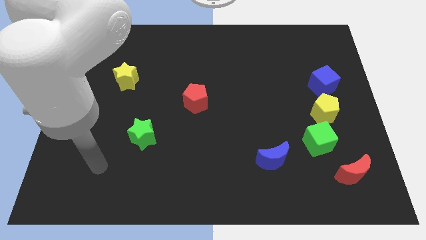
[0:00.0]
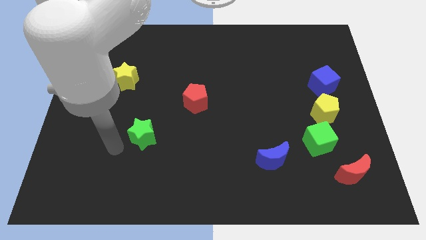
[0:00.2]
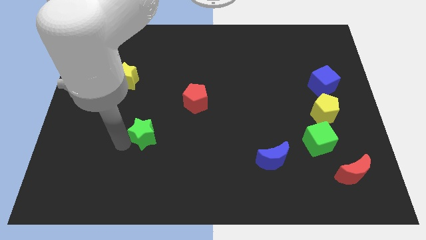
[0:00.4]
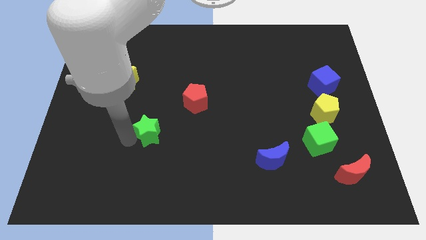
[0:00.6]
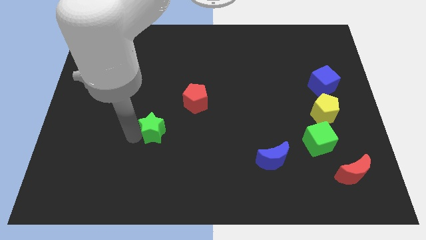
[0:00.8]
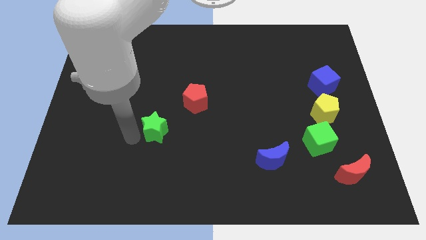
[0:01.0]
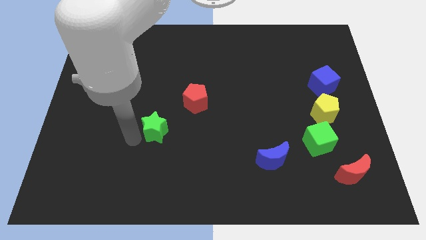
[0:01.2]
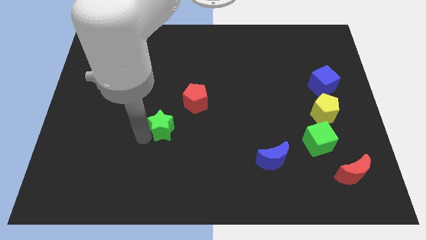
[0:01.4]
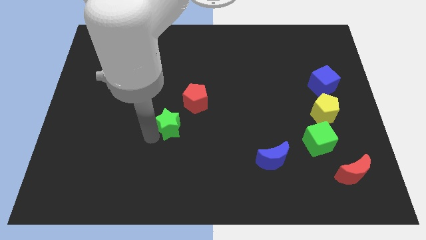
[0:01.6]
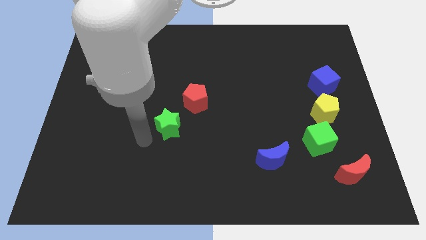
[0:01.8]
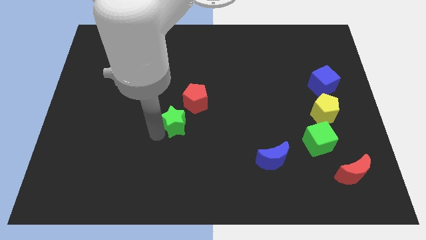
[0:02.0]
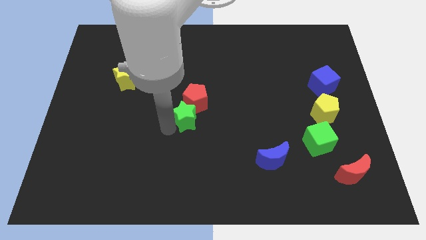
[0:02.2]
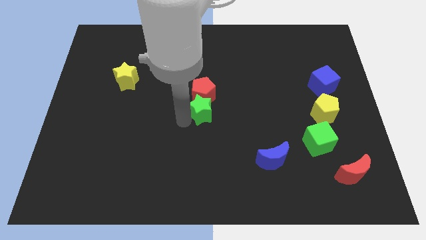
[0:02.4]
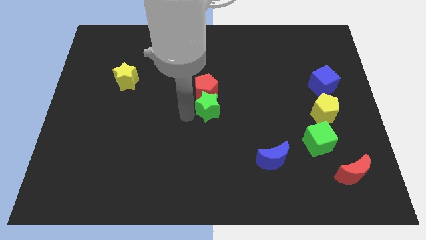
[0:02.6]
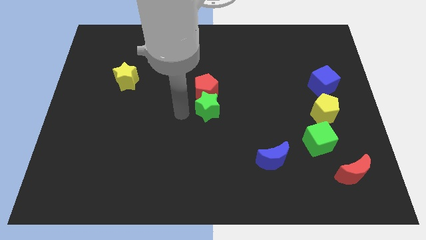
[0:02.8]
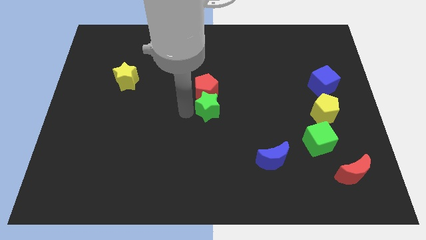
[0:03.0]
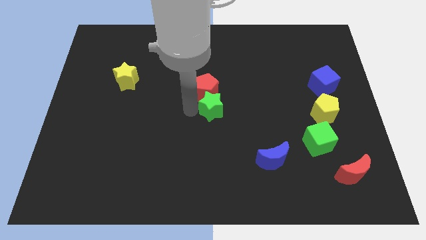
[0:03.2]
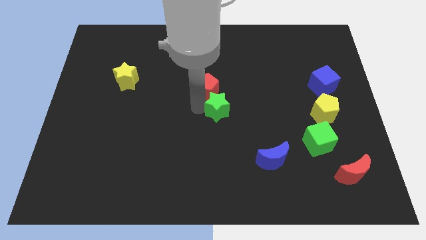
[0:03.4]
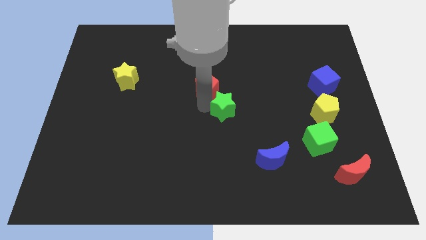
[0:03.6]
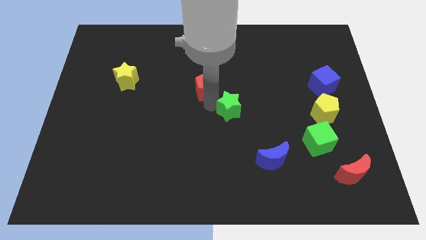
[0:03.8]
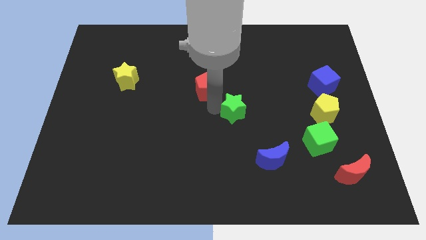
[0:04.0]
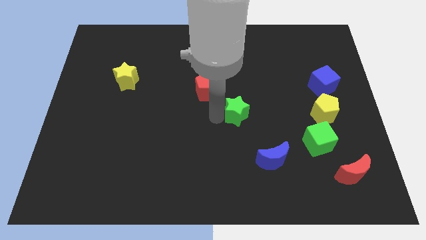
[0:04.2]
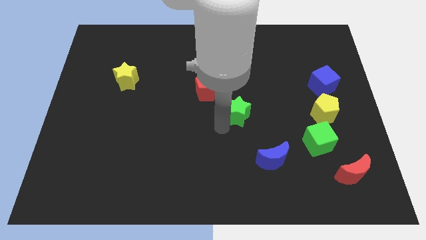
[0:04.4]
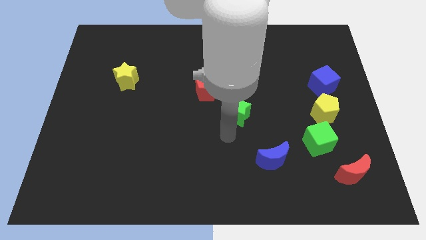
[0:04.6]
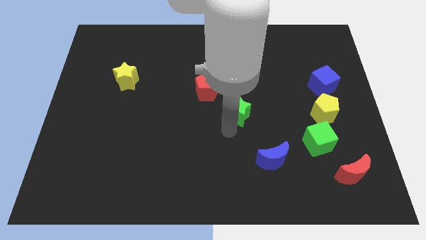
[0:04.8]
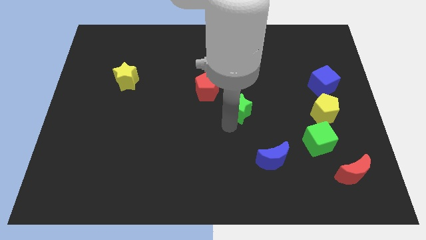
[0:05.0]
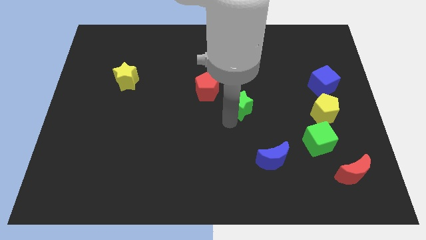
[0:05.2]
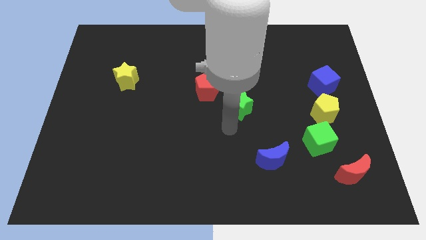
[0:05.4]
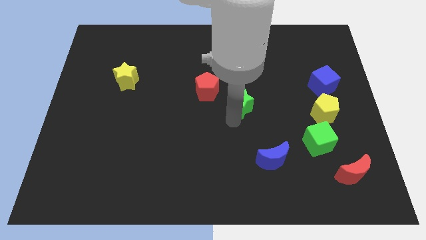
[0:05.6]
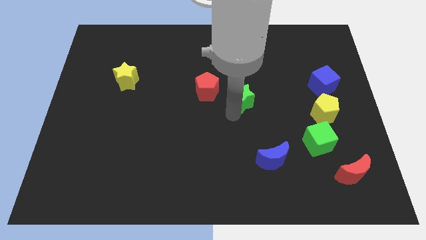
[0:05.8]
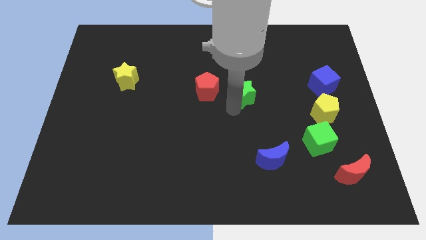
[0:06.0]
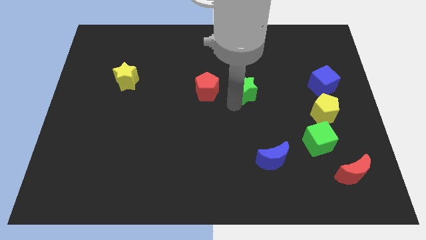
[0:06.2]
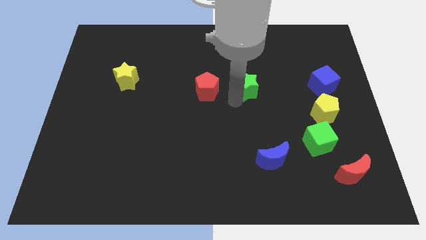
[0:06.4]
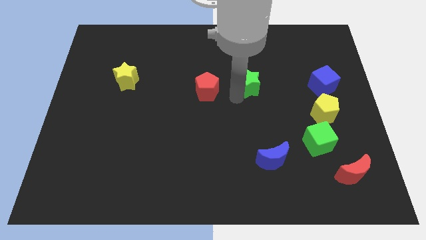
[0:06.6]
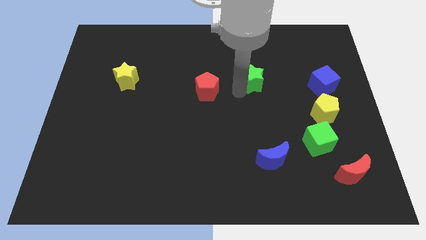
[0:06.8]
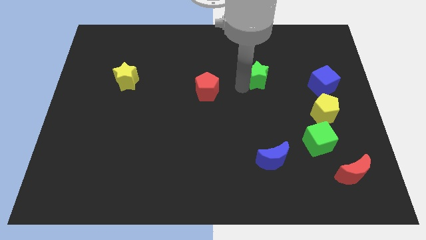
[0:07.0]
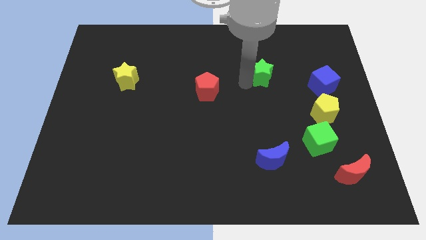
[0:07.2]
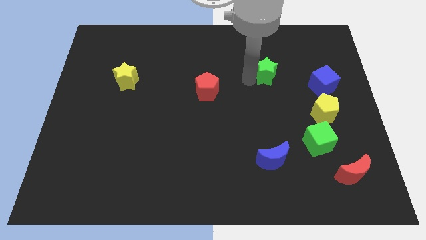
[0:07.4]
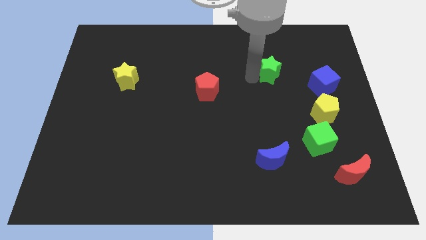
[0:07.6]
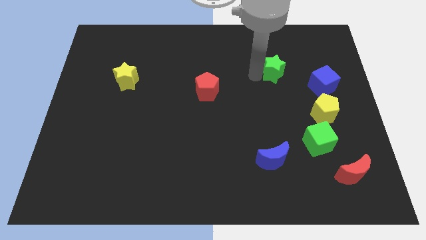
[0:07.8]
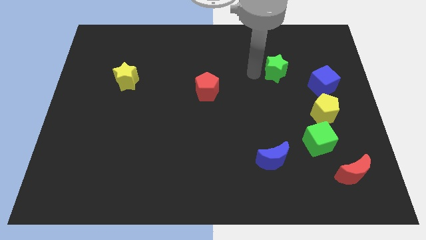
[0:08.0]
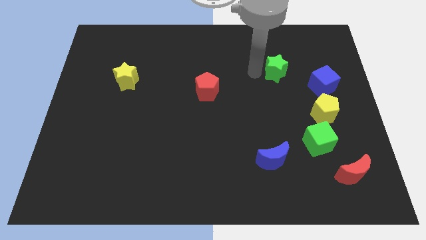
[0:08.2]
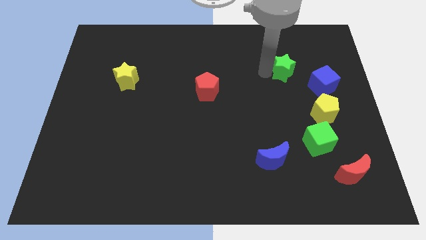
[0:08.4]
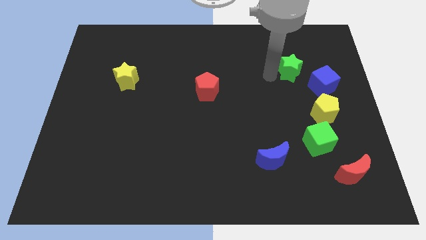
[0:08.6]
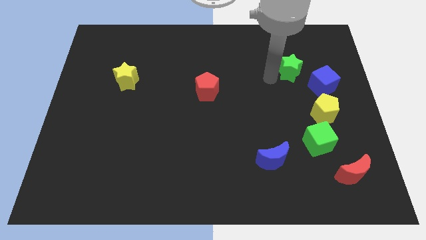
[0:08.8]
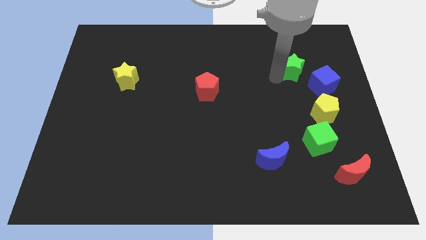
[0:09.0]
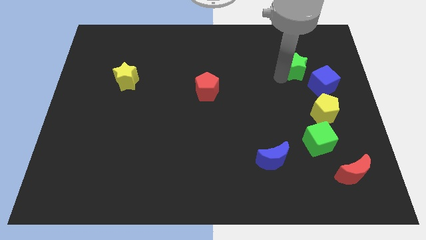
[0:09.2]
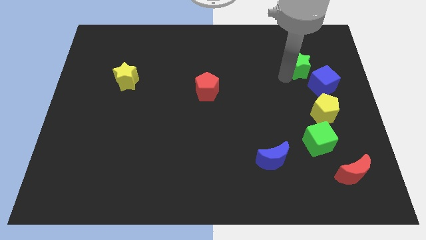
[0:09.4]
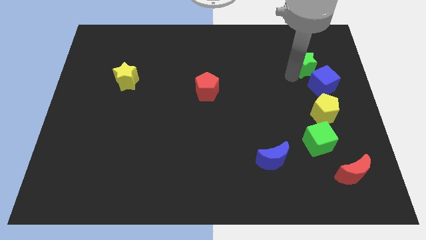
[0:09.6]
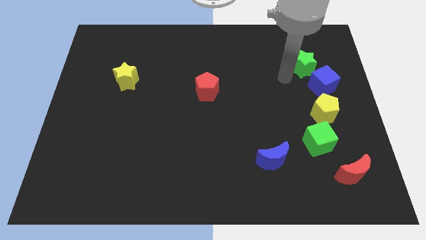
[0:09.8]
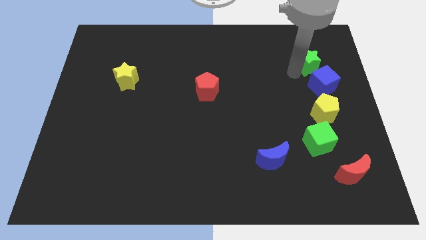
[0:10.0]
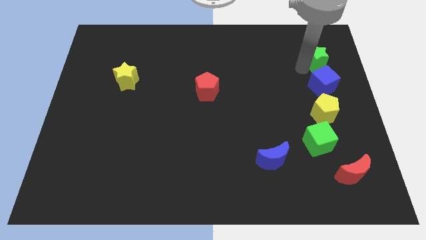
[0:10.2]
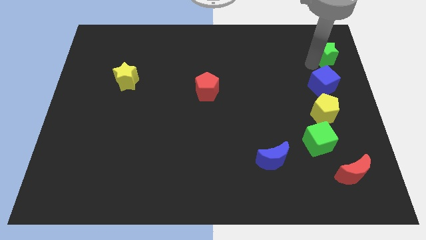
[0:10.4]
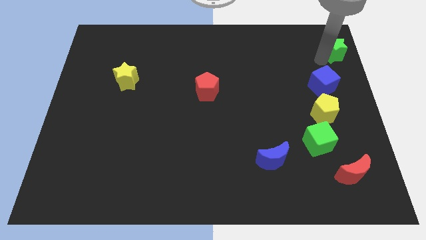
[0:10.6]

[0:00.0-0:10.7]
slide the green star to the top right
